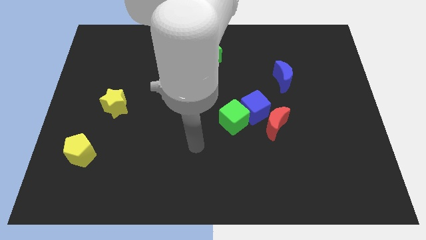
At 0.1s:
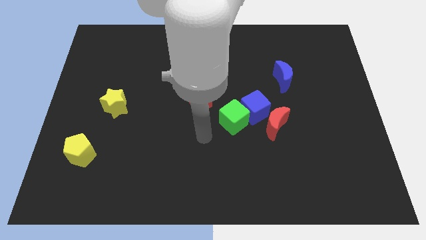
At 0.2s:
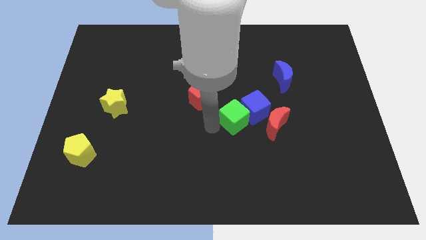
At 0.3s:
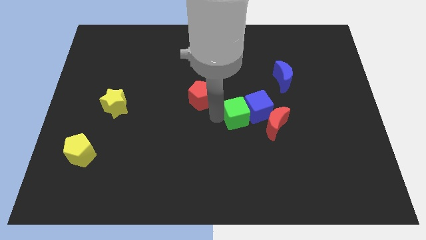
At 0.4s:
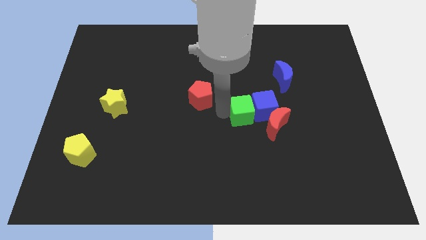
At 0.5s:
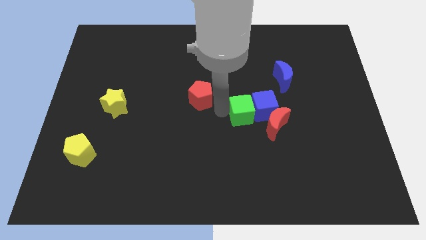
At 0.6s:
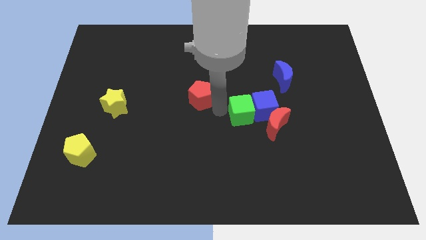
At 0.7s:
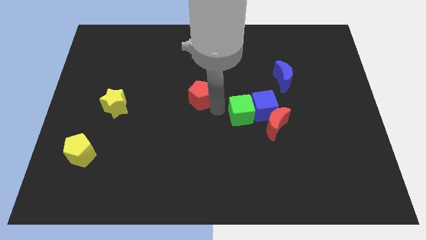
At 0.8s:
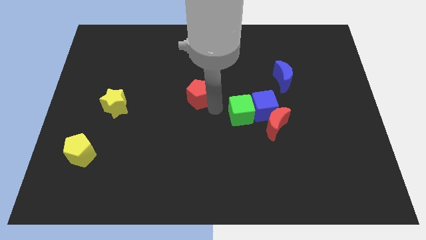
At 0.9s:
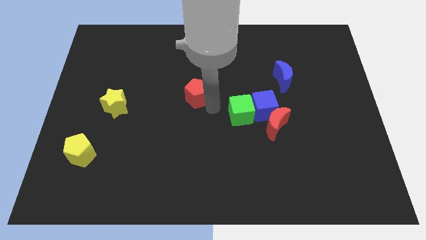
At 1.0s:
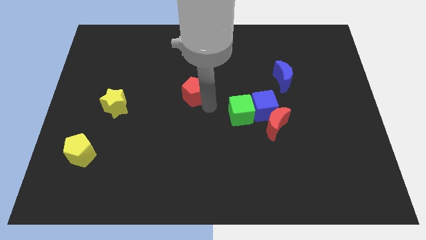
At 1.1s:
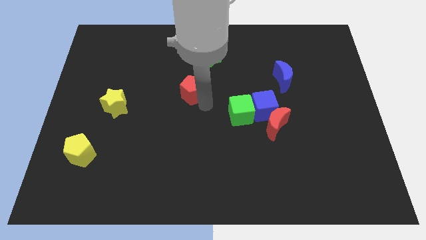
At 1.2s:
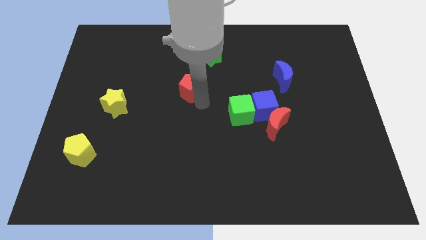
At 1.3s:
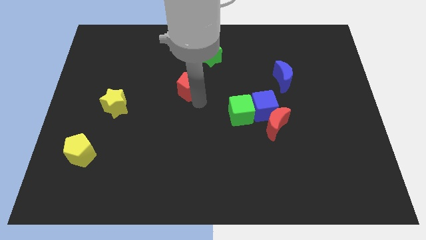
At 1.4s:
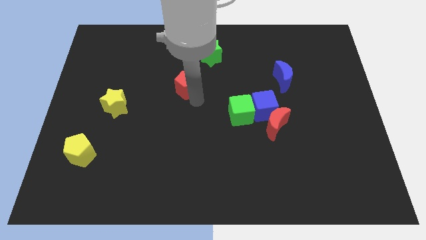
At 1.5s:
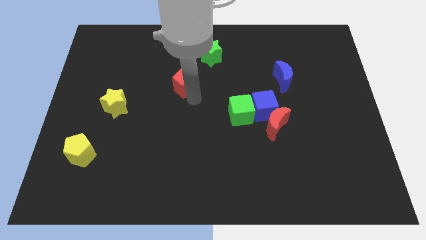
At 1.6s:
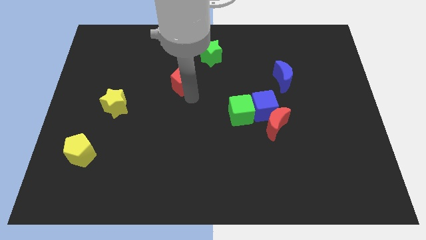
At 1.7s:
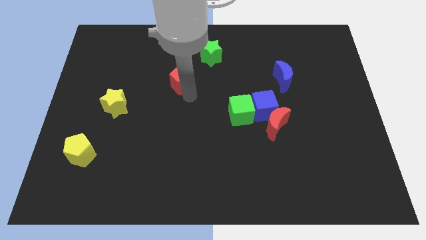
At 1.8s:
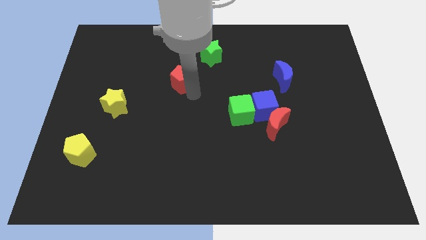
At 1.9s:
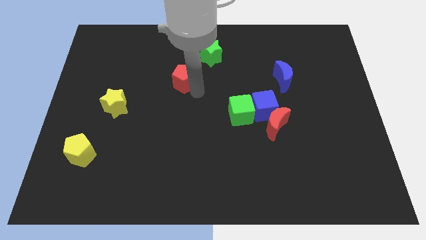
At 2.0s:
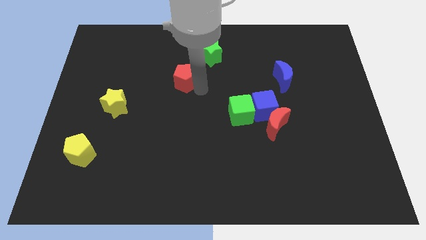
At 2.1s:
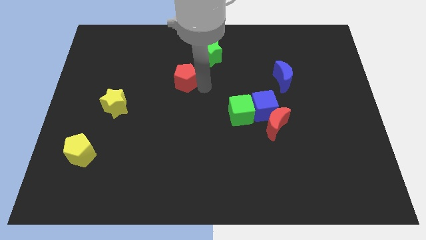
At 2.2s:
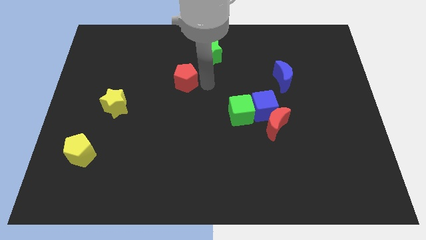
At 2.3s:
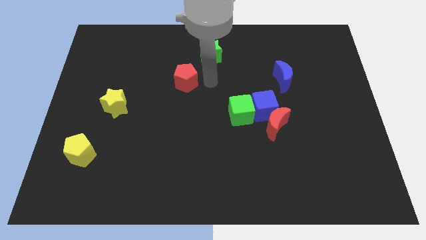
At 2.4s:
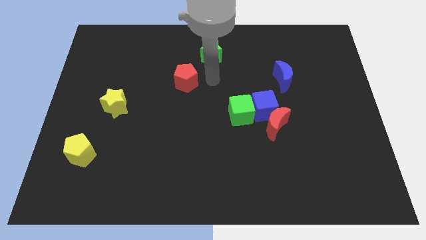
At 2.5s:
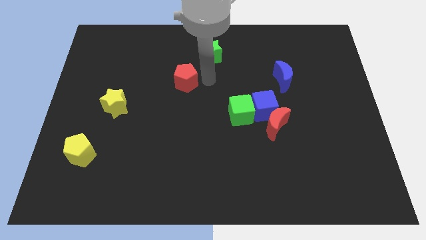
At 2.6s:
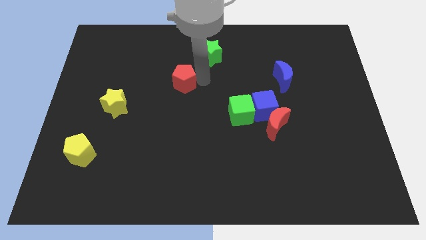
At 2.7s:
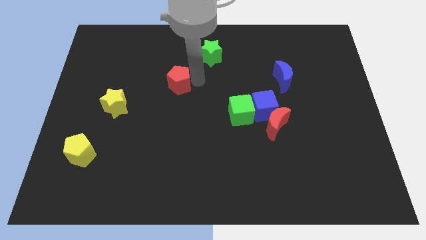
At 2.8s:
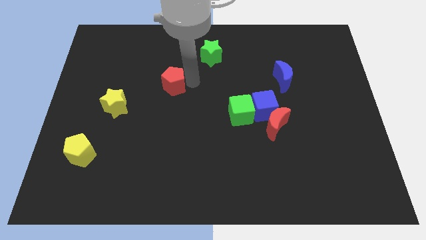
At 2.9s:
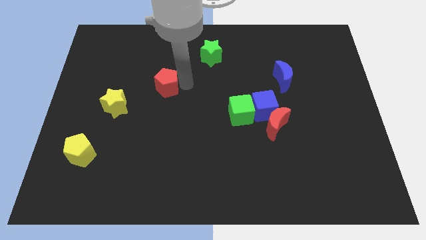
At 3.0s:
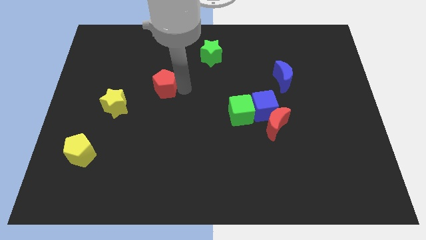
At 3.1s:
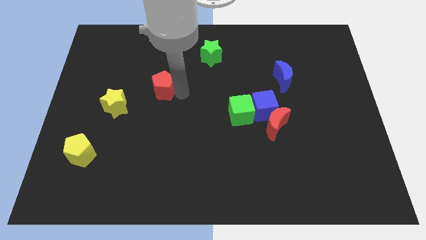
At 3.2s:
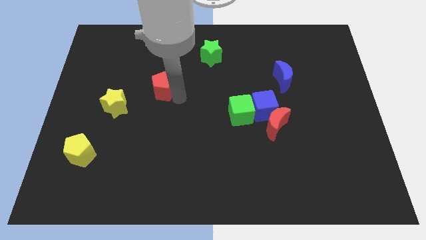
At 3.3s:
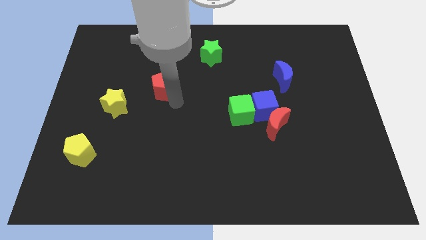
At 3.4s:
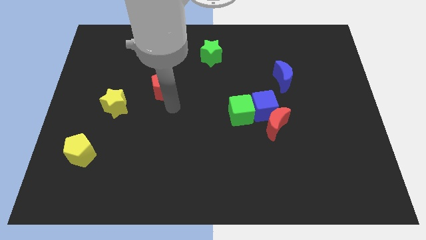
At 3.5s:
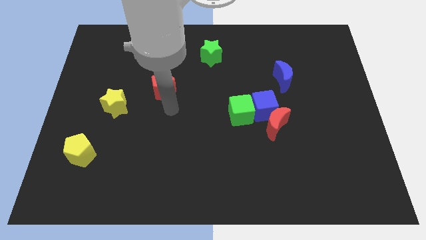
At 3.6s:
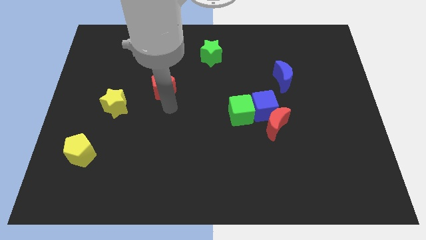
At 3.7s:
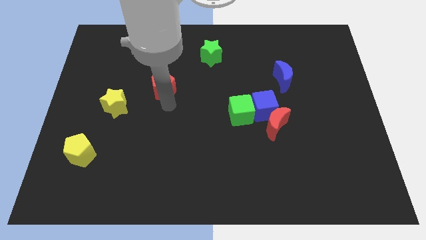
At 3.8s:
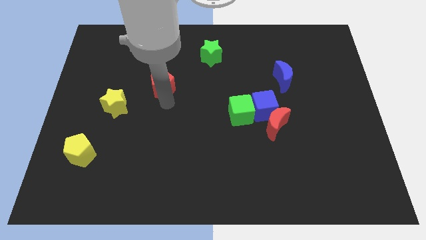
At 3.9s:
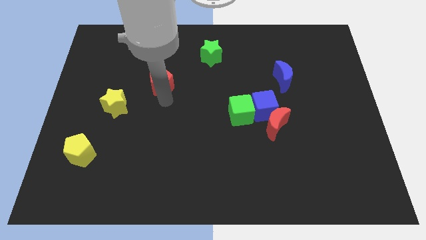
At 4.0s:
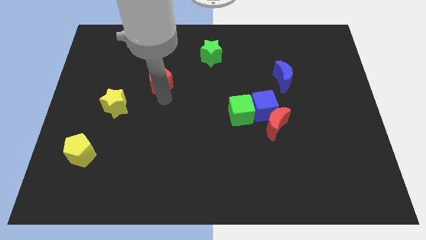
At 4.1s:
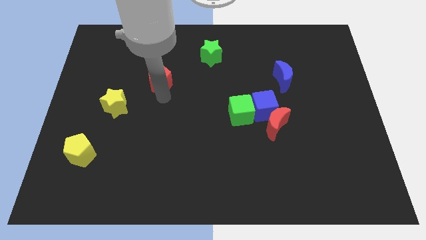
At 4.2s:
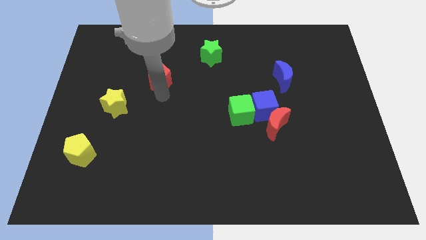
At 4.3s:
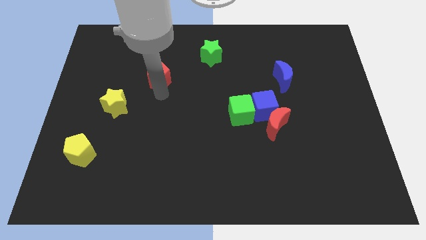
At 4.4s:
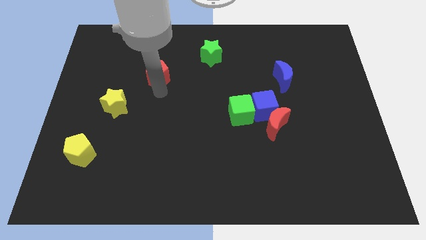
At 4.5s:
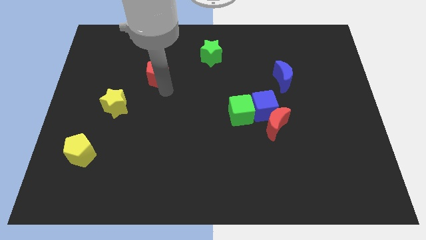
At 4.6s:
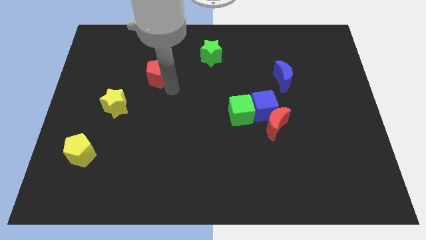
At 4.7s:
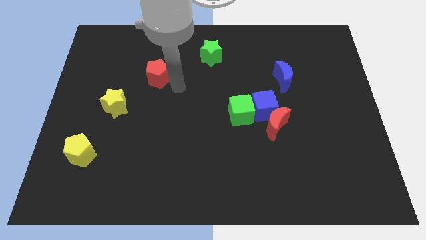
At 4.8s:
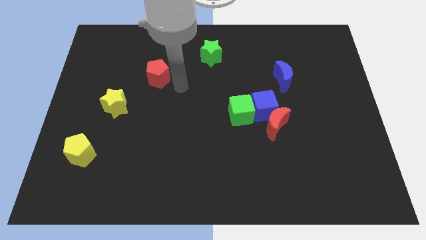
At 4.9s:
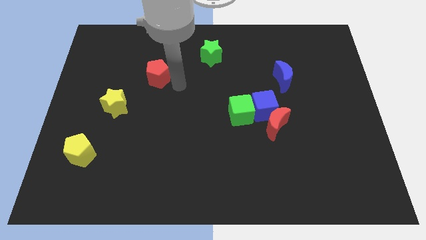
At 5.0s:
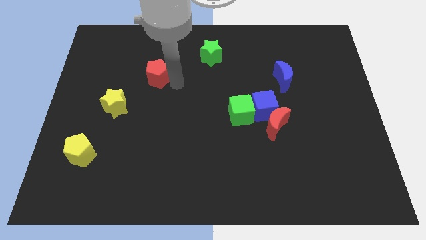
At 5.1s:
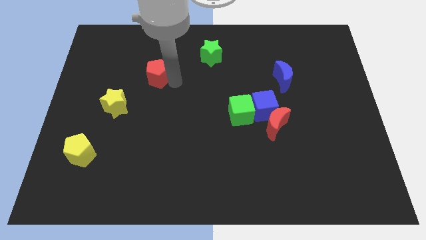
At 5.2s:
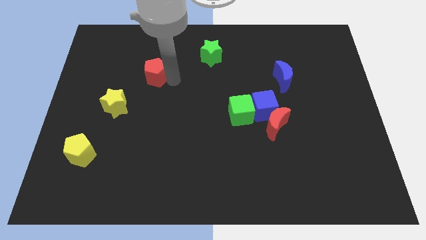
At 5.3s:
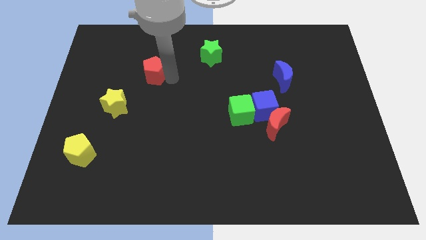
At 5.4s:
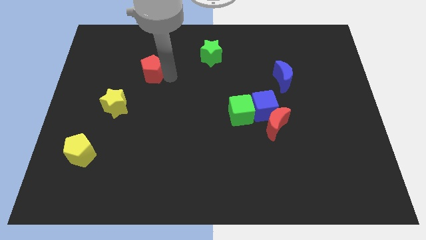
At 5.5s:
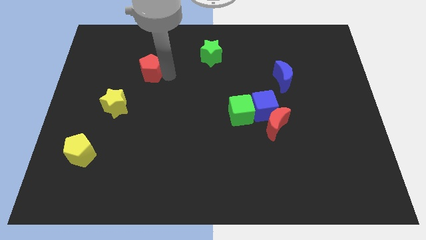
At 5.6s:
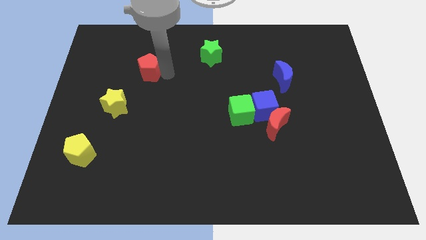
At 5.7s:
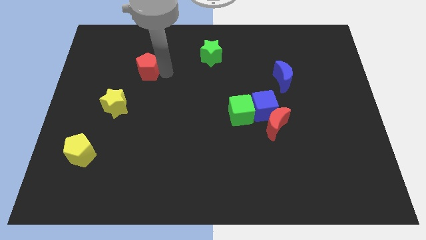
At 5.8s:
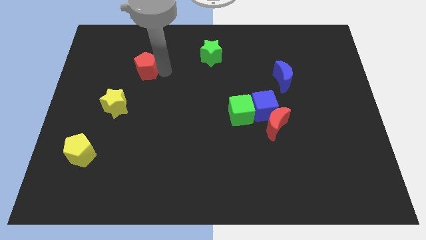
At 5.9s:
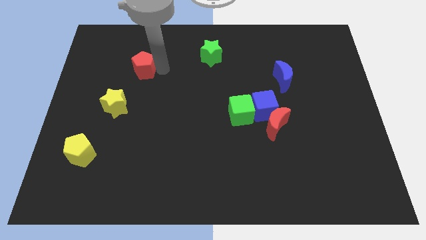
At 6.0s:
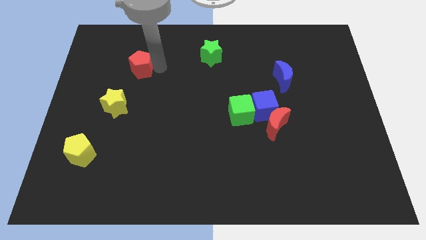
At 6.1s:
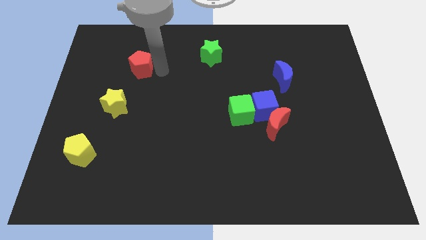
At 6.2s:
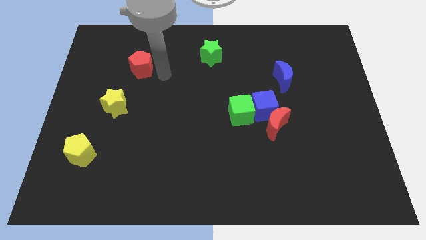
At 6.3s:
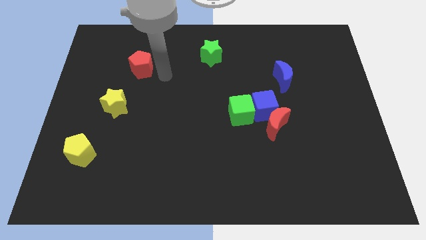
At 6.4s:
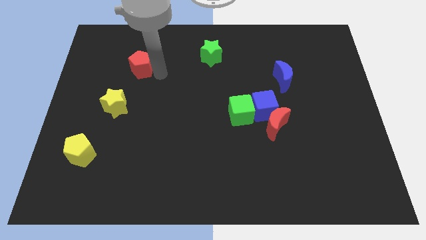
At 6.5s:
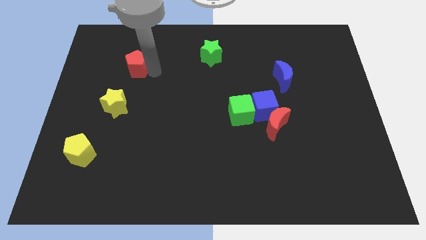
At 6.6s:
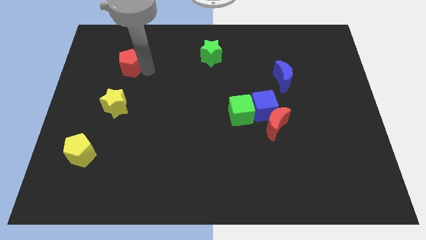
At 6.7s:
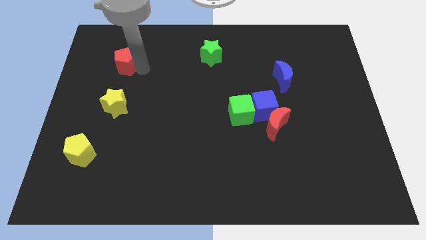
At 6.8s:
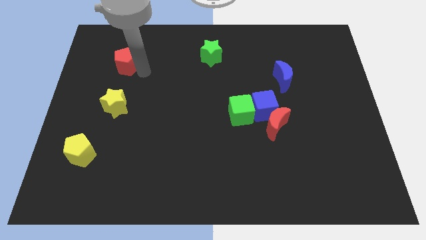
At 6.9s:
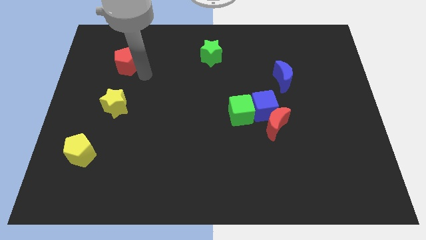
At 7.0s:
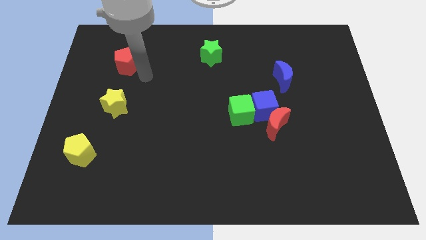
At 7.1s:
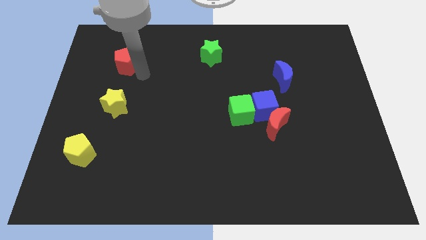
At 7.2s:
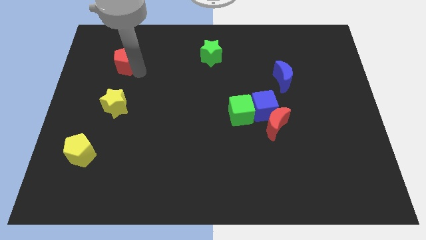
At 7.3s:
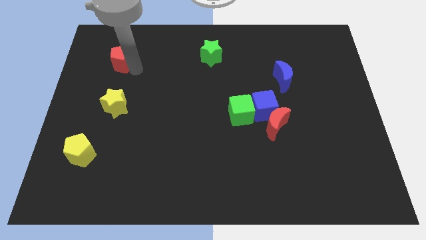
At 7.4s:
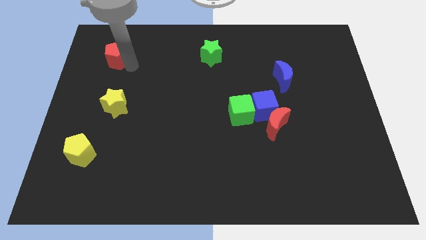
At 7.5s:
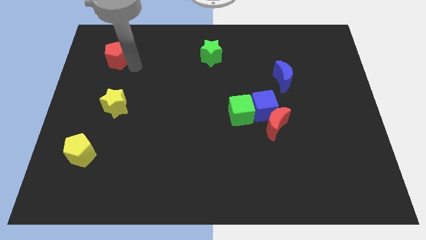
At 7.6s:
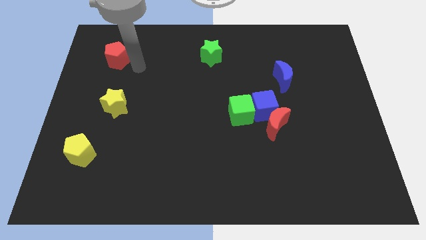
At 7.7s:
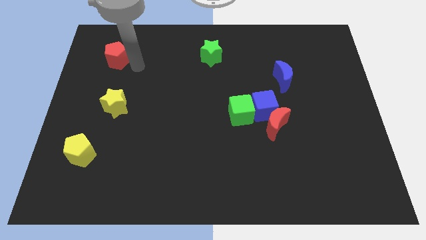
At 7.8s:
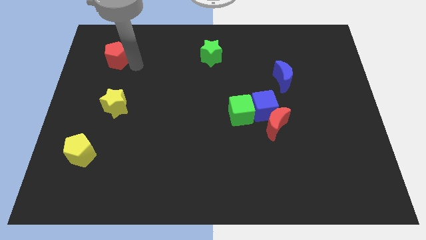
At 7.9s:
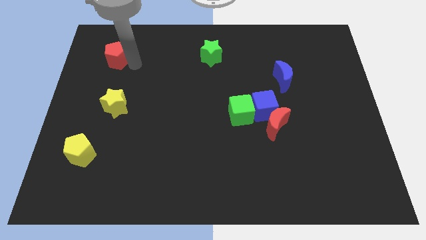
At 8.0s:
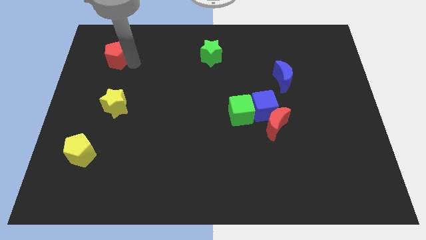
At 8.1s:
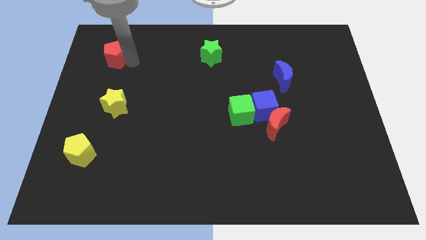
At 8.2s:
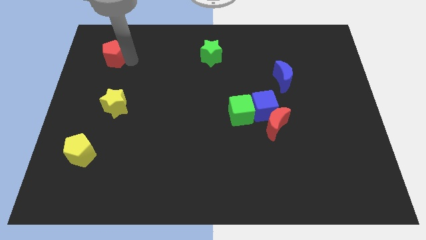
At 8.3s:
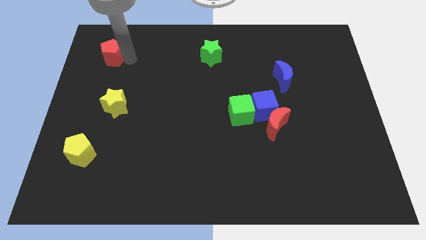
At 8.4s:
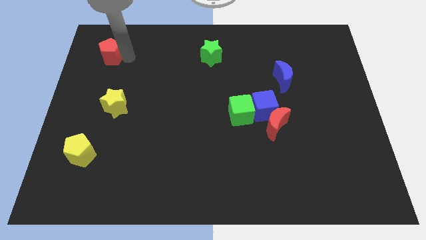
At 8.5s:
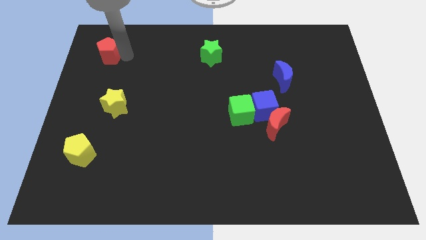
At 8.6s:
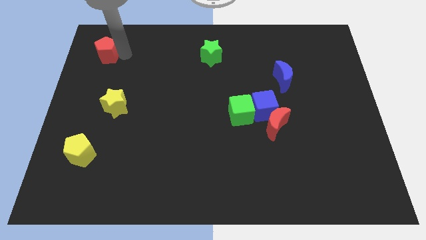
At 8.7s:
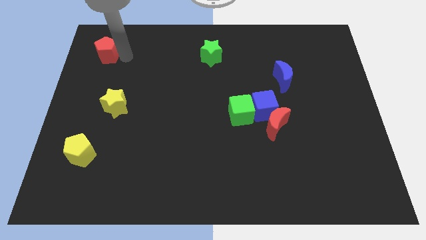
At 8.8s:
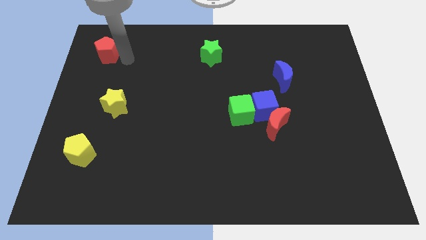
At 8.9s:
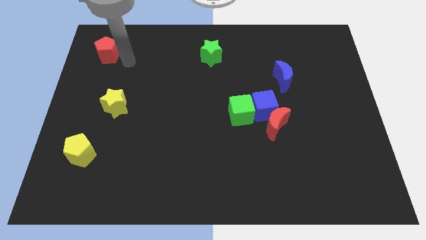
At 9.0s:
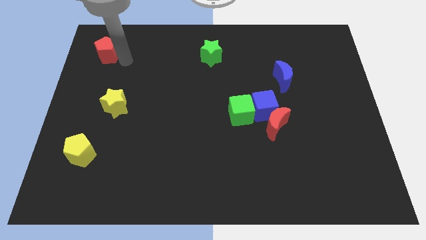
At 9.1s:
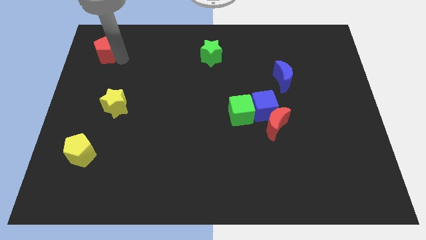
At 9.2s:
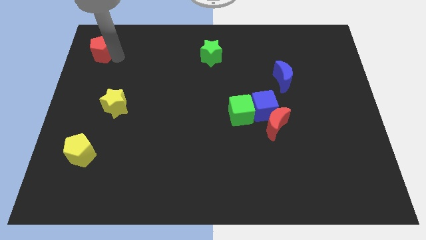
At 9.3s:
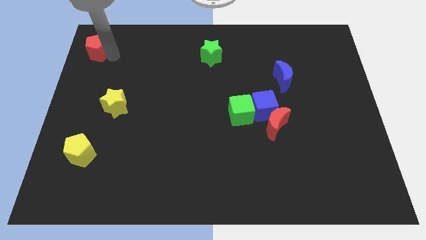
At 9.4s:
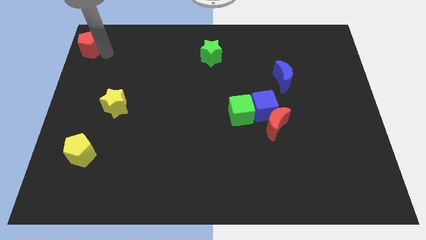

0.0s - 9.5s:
push the red pentagon to the top left of the board
